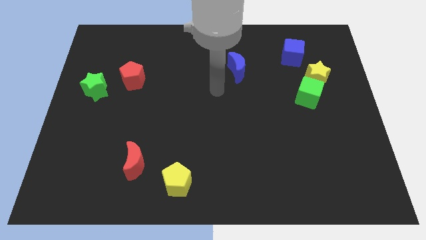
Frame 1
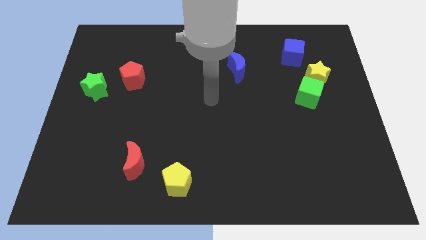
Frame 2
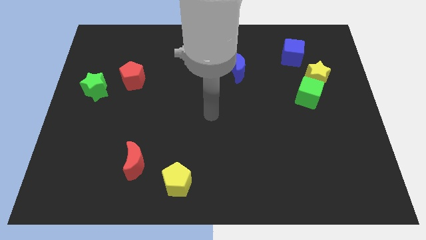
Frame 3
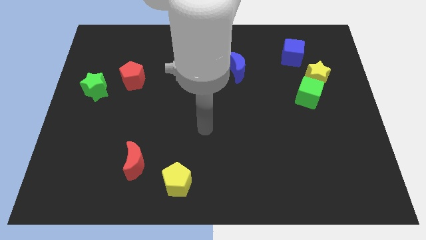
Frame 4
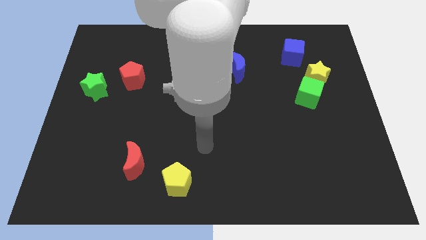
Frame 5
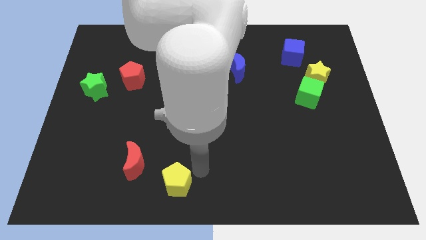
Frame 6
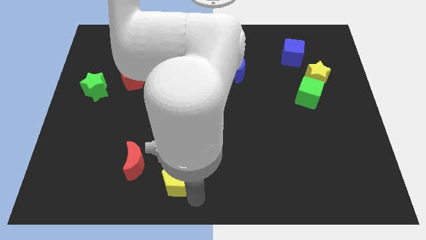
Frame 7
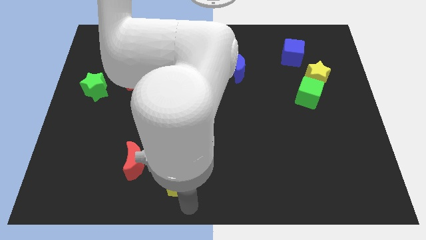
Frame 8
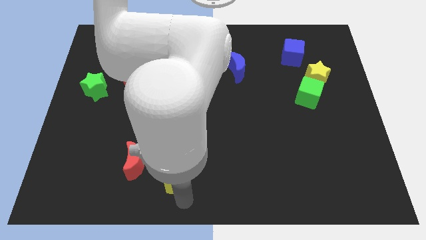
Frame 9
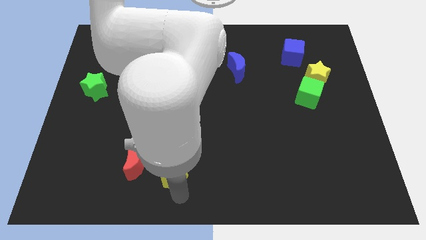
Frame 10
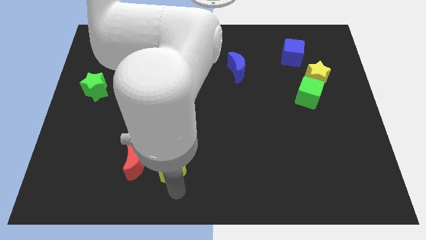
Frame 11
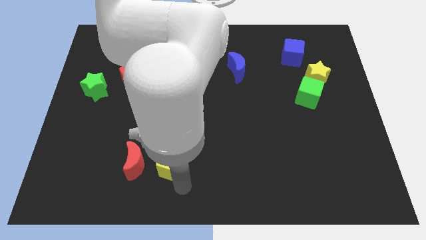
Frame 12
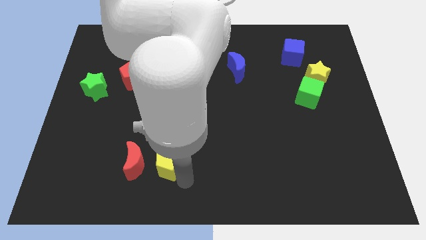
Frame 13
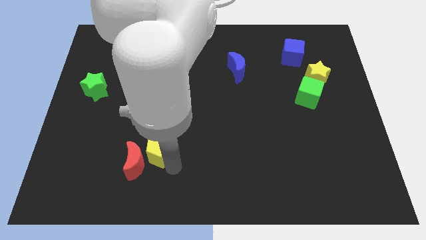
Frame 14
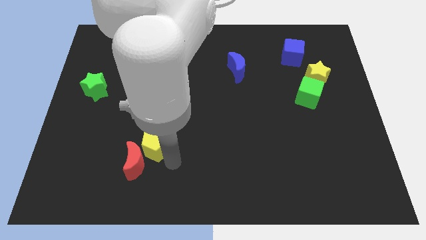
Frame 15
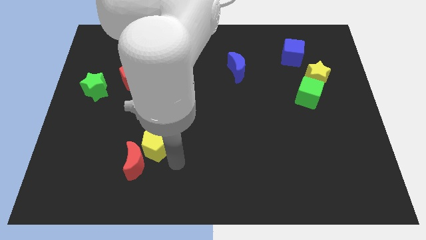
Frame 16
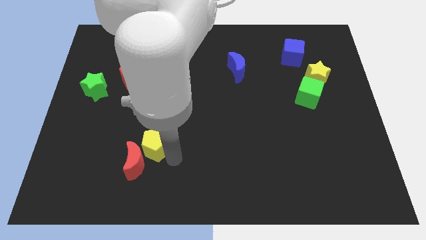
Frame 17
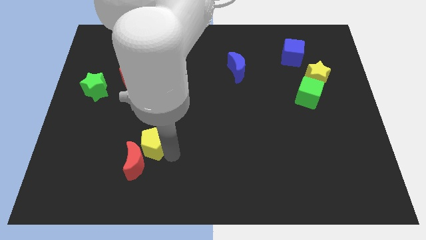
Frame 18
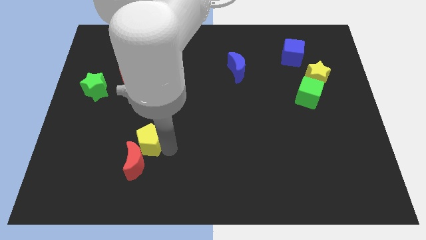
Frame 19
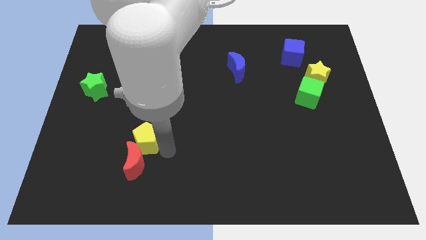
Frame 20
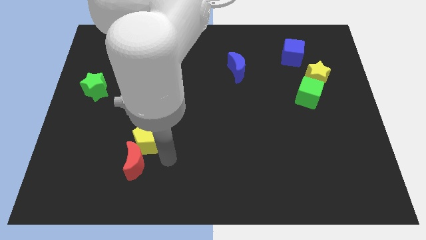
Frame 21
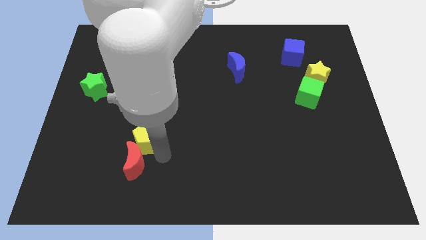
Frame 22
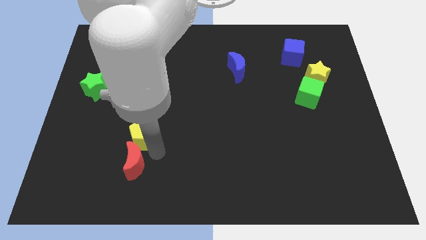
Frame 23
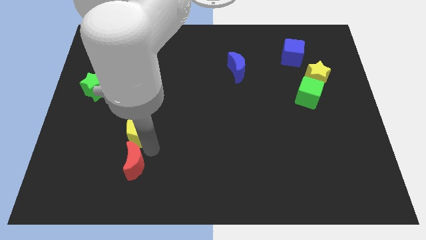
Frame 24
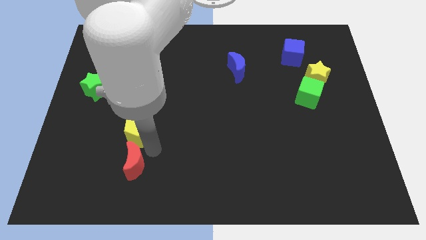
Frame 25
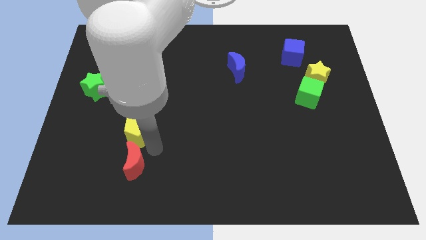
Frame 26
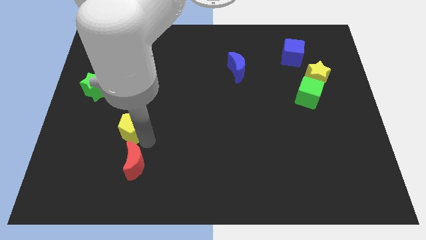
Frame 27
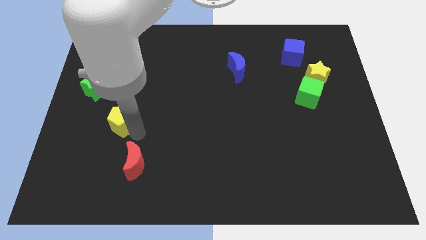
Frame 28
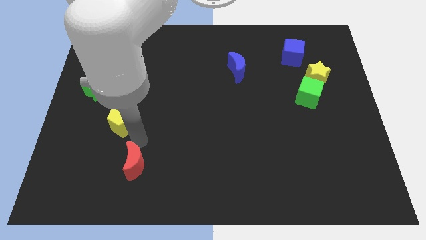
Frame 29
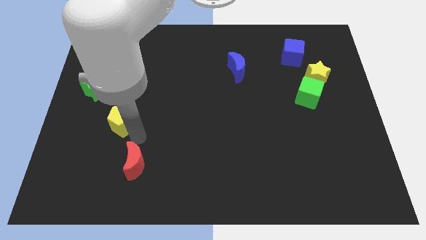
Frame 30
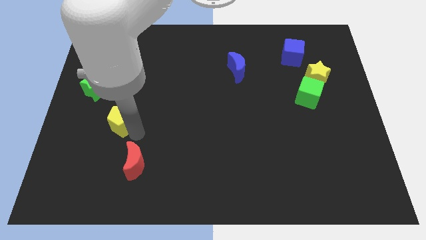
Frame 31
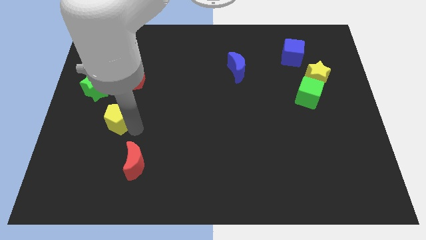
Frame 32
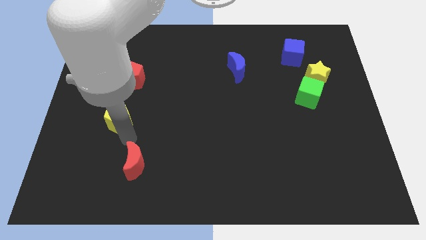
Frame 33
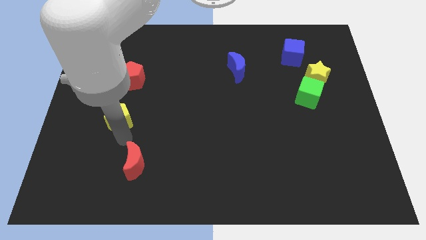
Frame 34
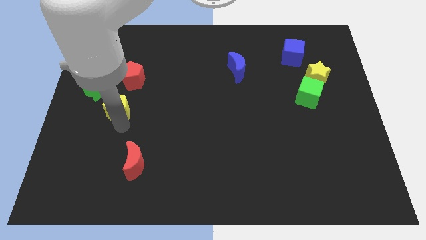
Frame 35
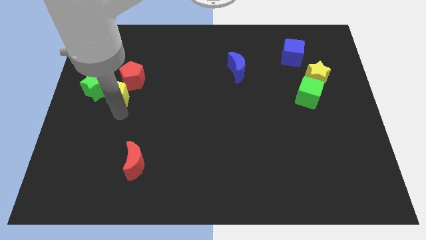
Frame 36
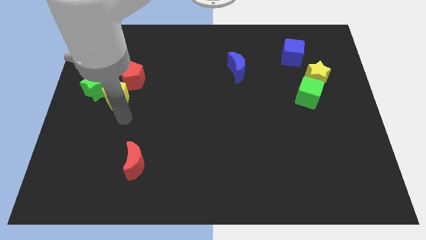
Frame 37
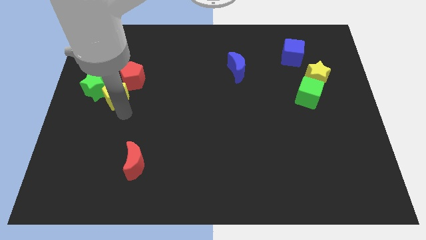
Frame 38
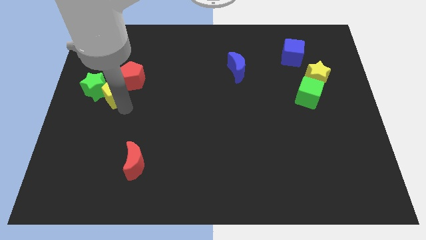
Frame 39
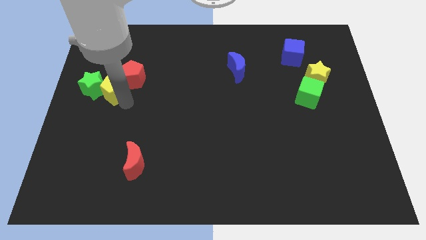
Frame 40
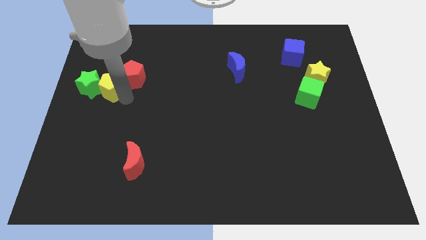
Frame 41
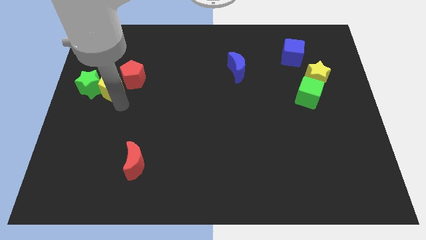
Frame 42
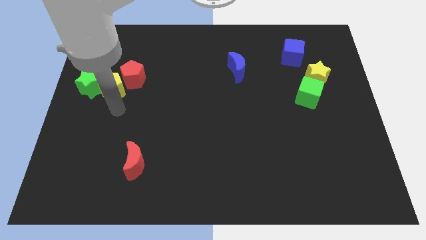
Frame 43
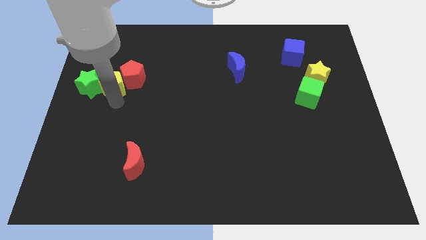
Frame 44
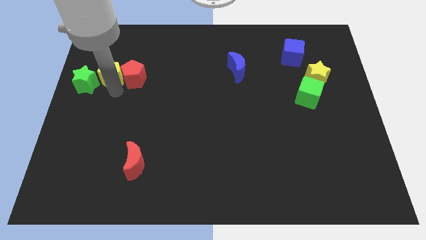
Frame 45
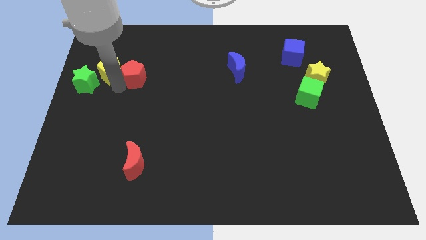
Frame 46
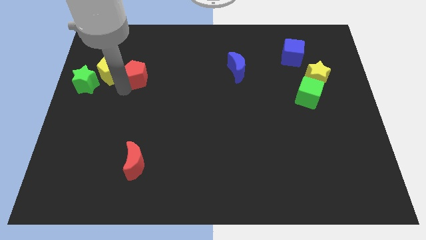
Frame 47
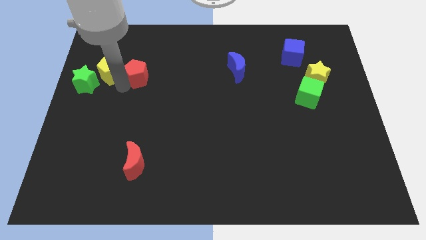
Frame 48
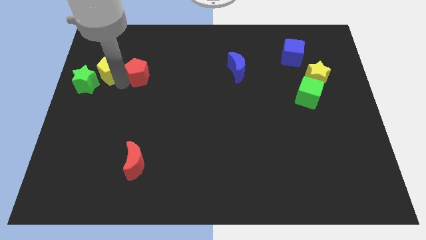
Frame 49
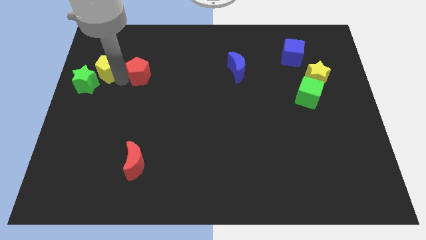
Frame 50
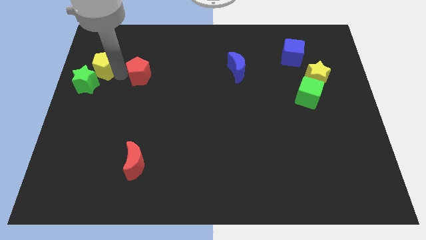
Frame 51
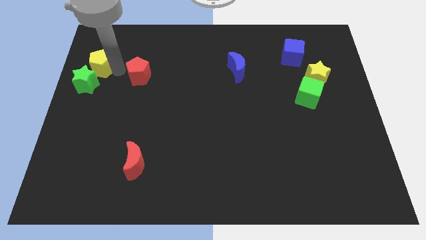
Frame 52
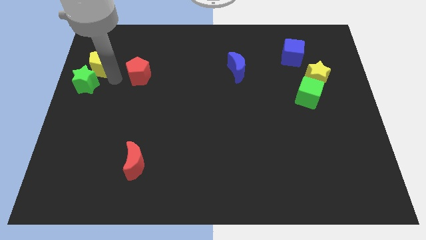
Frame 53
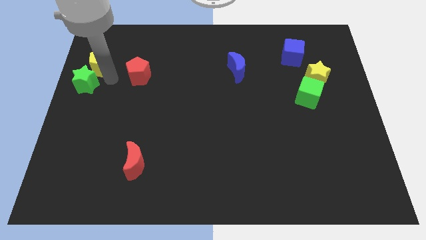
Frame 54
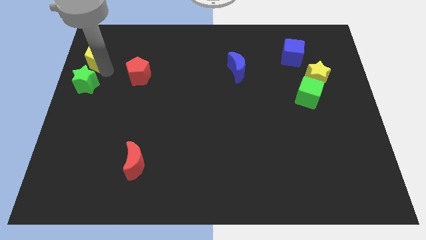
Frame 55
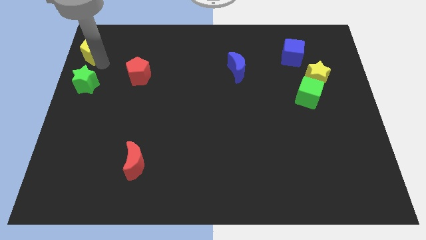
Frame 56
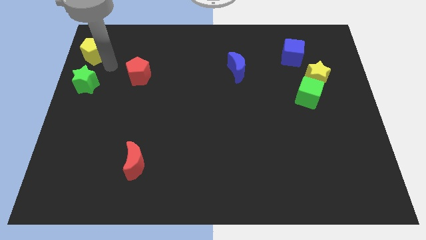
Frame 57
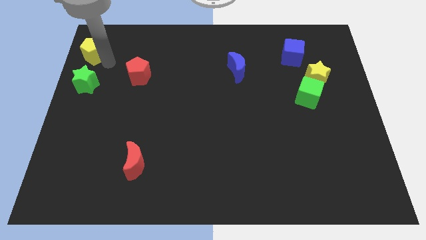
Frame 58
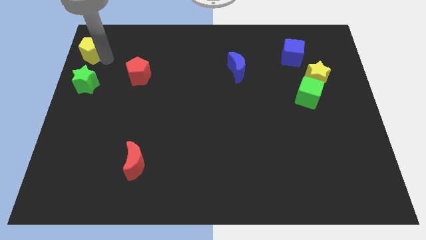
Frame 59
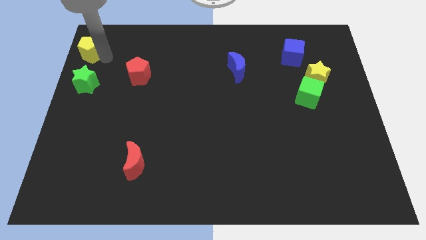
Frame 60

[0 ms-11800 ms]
slide the yellow pentagon to the top left corner

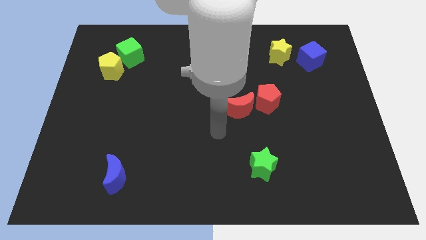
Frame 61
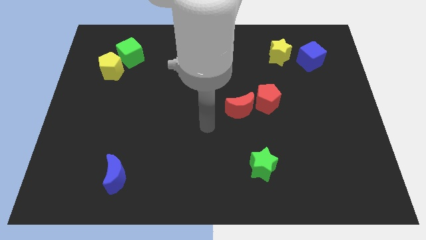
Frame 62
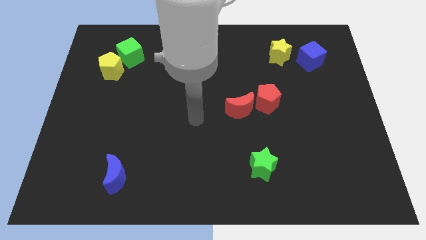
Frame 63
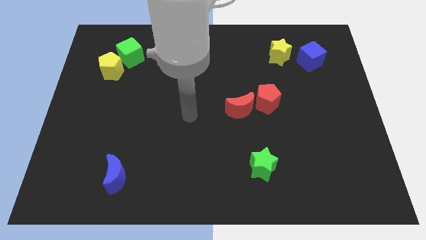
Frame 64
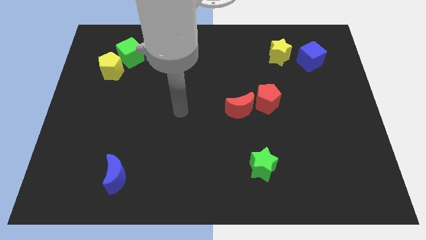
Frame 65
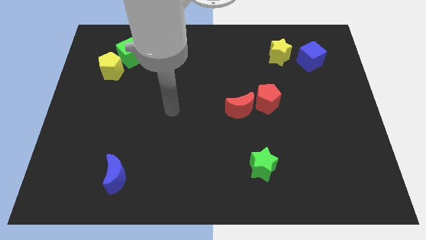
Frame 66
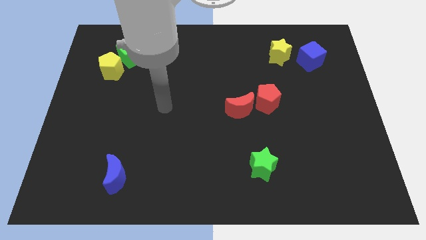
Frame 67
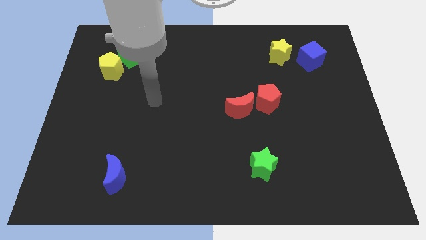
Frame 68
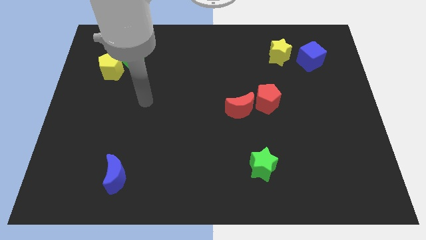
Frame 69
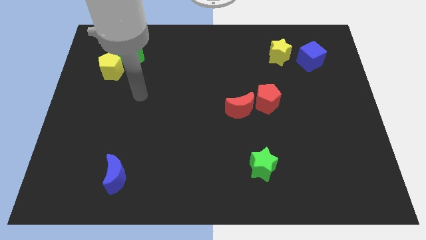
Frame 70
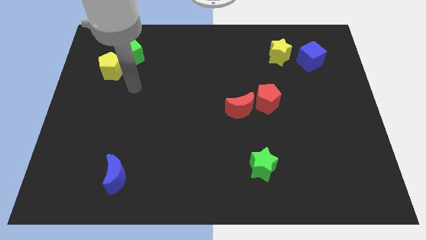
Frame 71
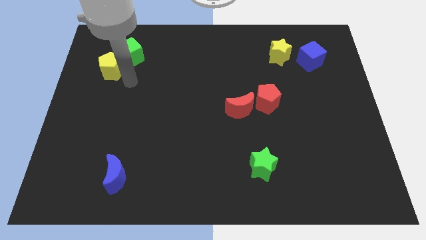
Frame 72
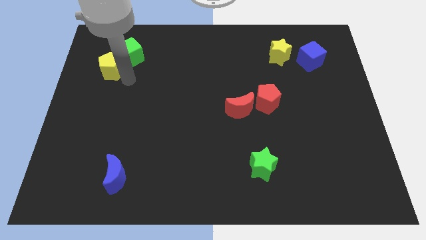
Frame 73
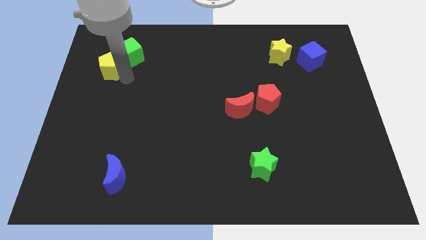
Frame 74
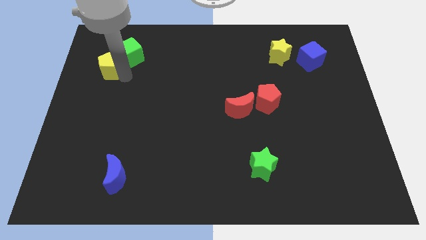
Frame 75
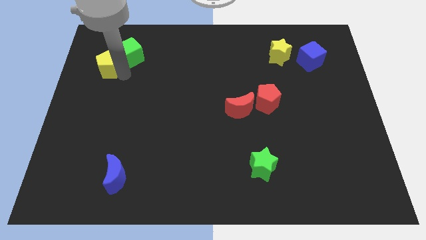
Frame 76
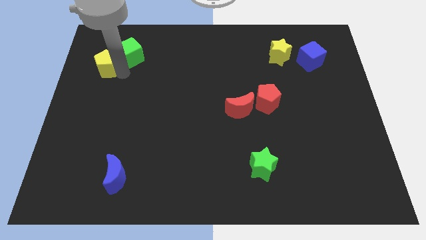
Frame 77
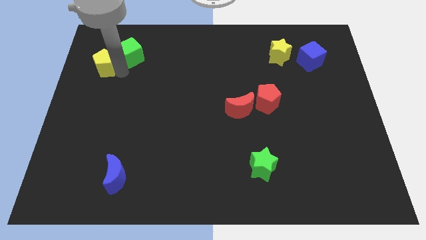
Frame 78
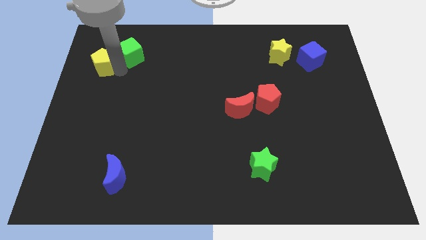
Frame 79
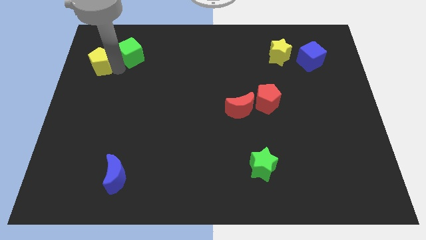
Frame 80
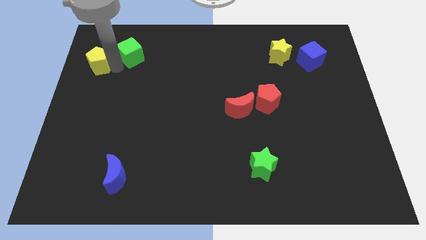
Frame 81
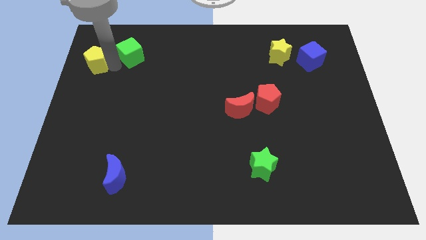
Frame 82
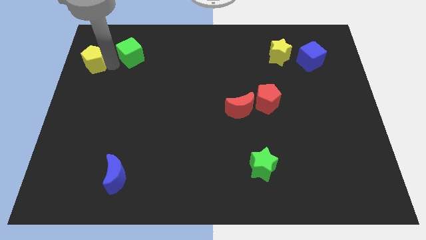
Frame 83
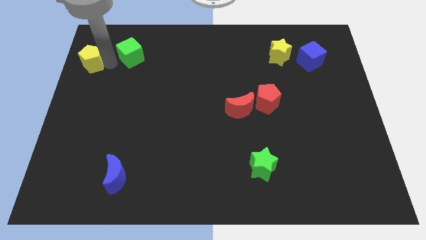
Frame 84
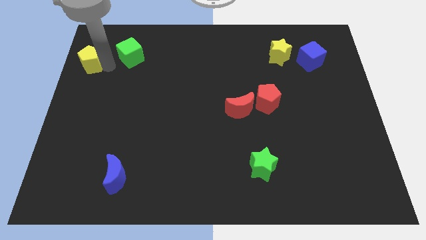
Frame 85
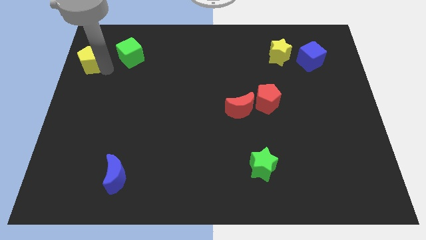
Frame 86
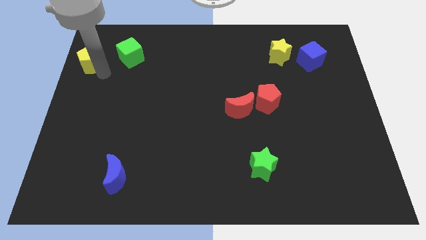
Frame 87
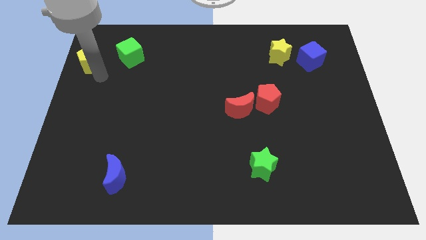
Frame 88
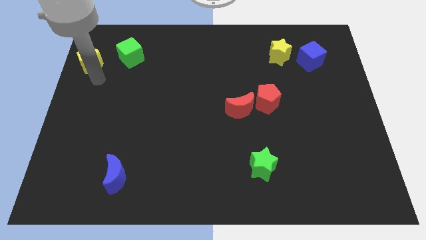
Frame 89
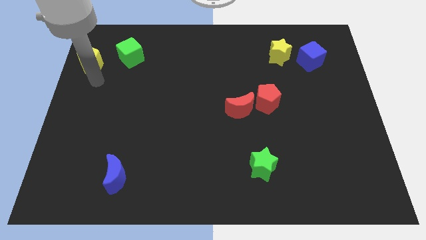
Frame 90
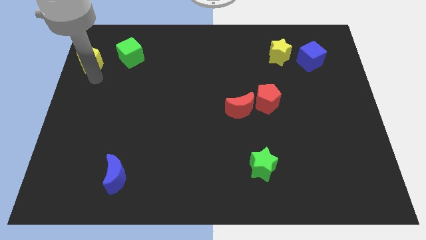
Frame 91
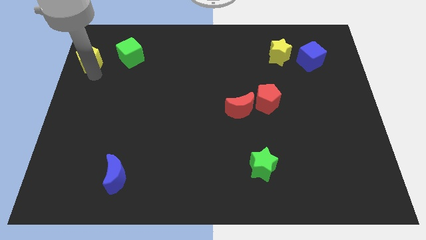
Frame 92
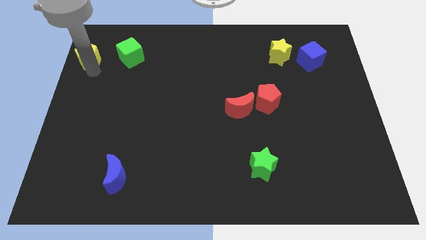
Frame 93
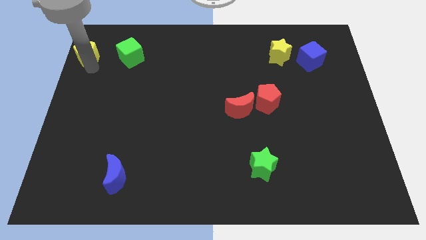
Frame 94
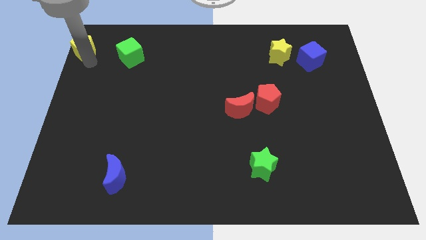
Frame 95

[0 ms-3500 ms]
put the yellow pentagon to the top left corner
